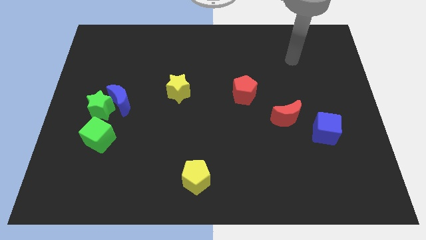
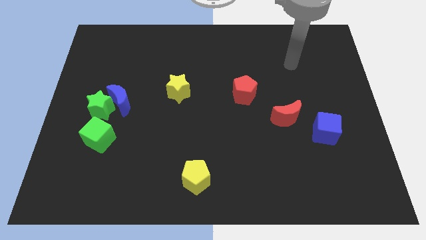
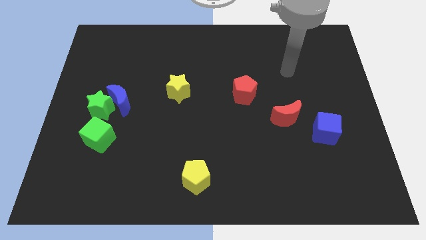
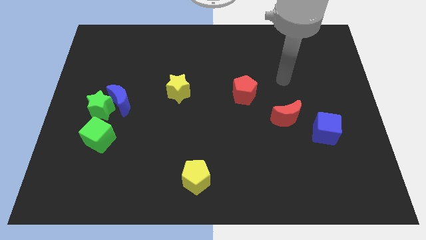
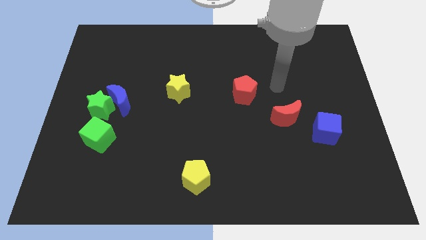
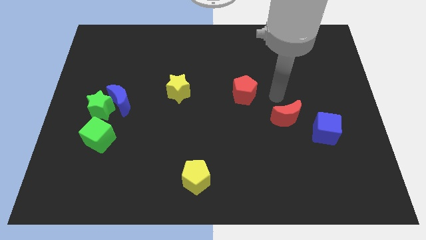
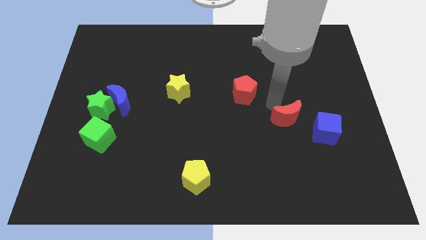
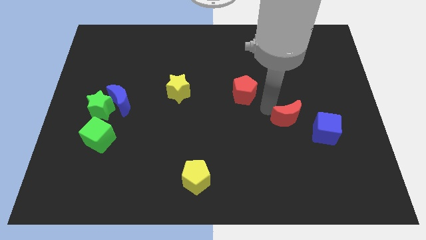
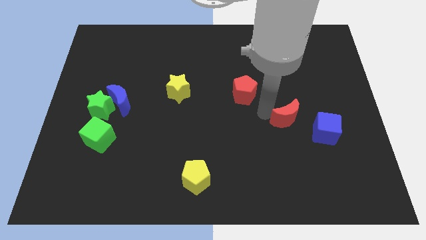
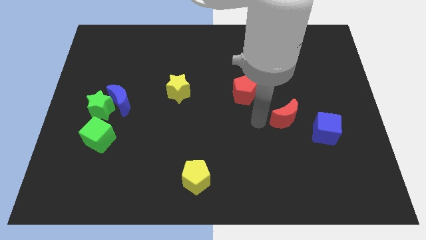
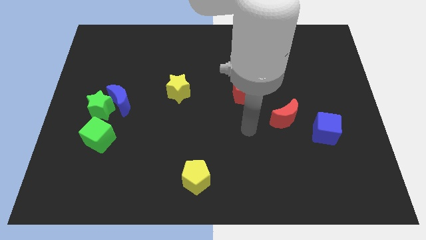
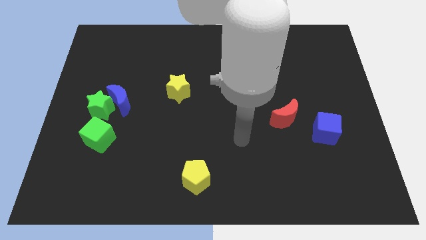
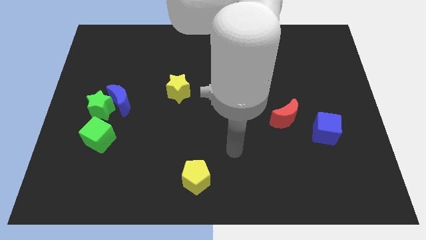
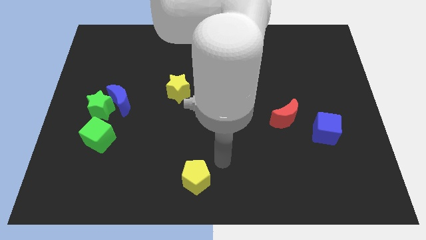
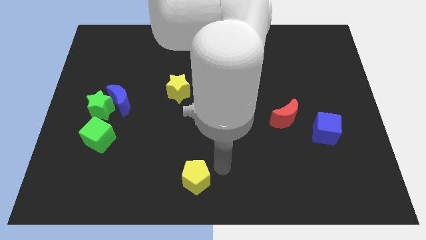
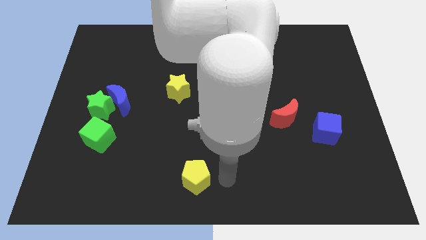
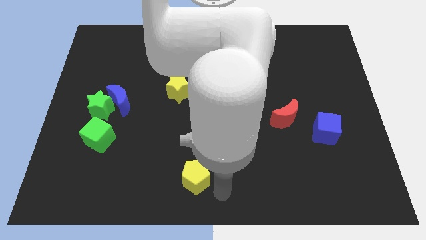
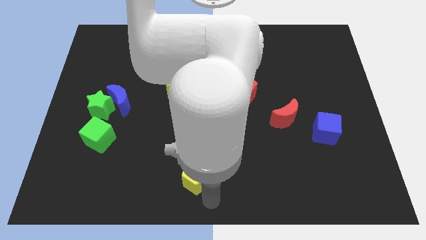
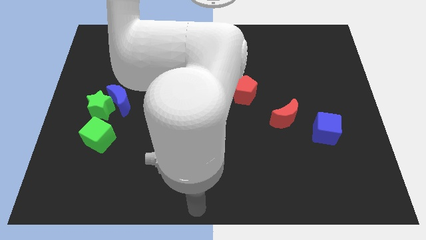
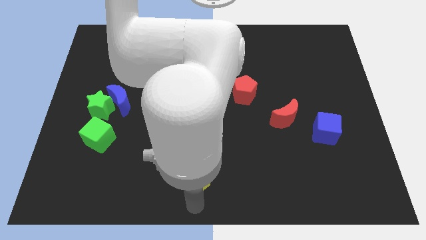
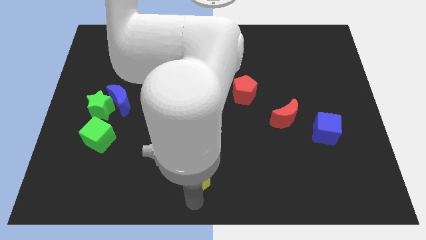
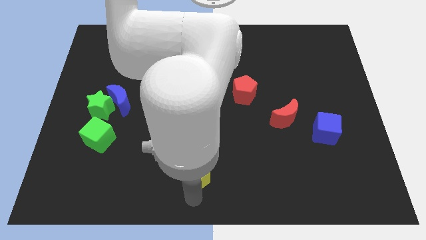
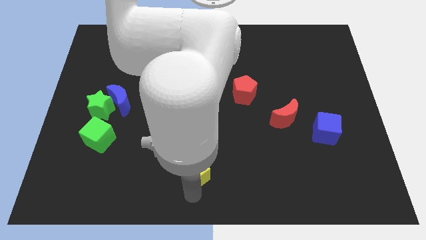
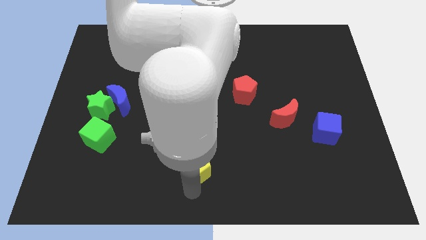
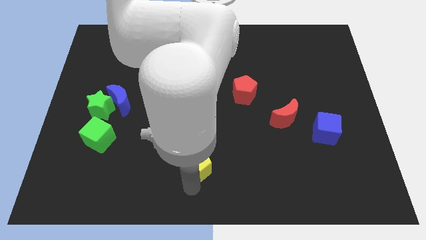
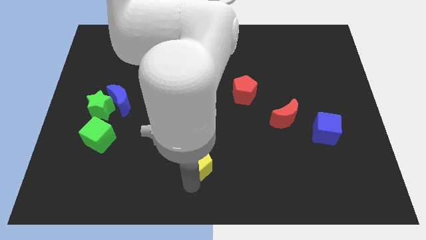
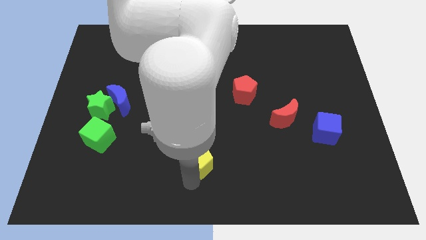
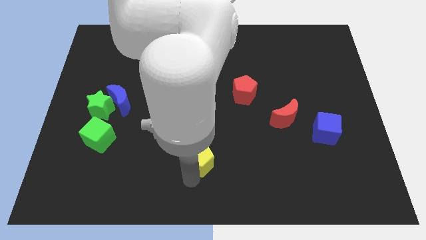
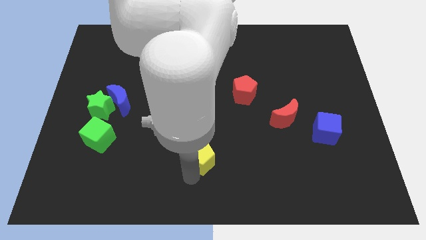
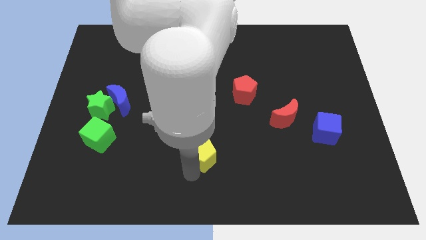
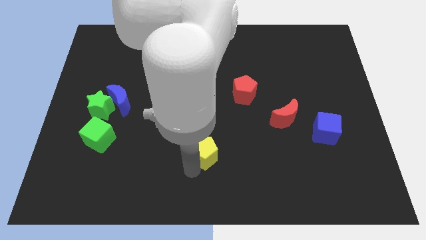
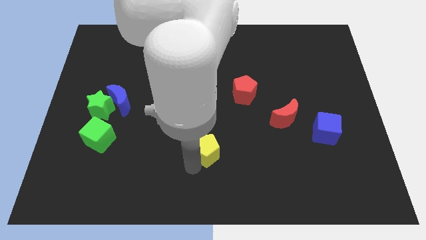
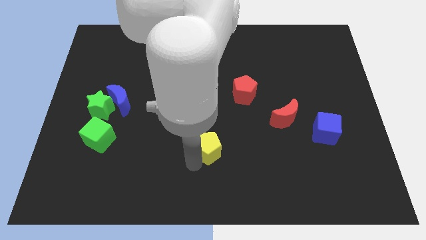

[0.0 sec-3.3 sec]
move the yellow pentagon up a little

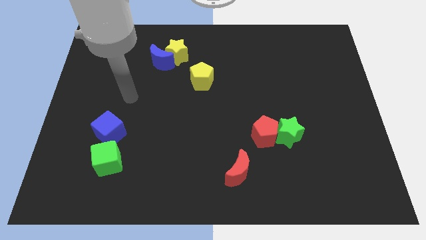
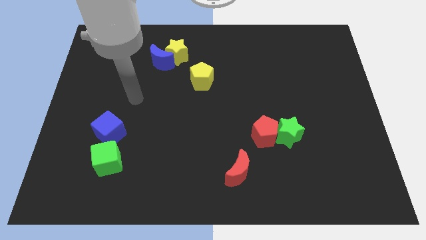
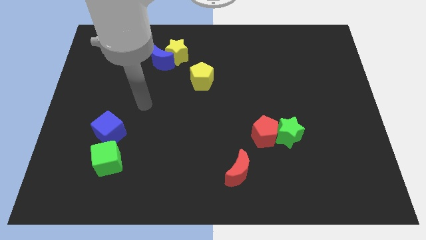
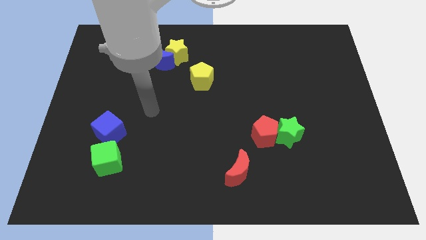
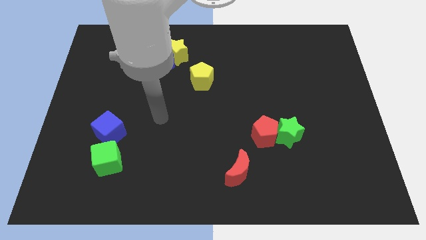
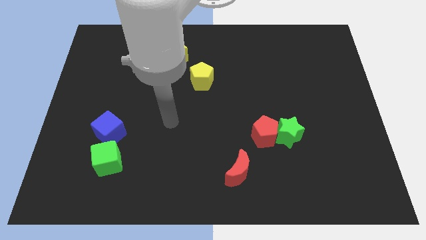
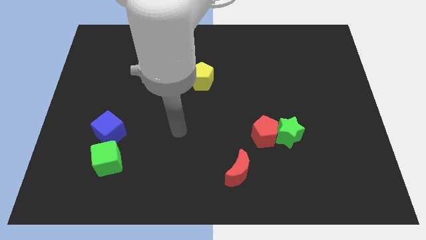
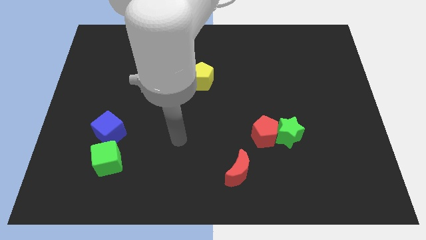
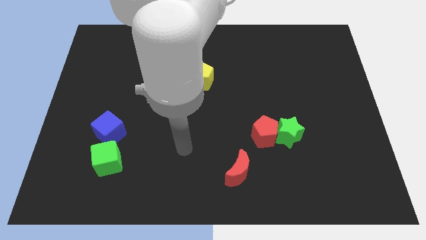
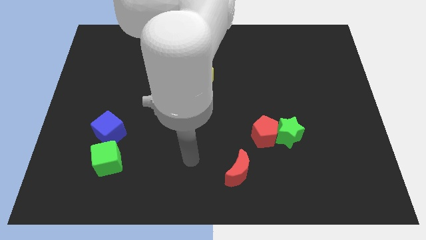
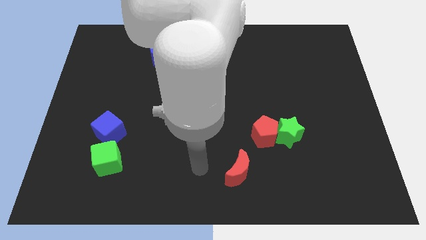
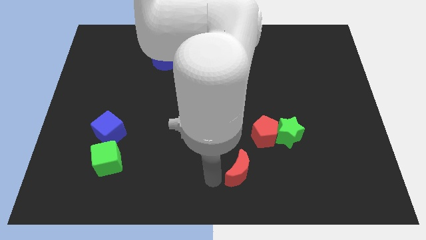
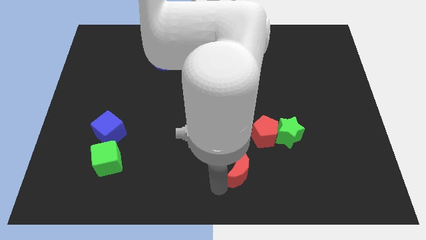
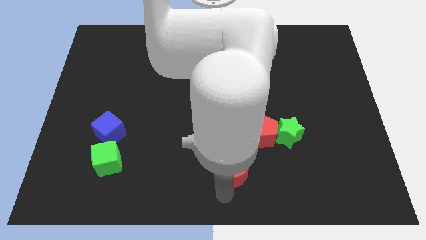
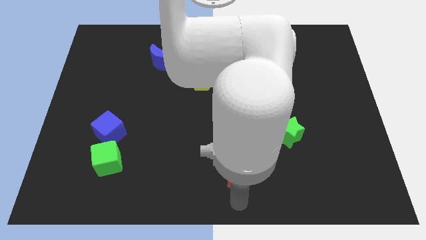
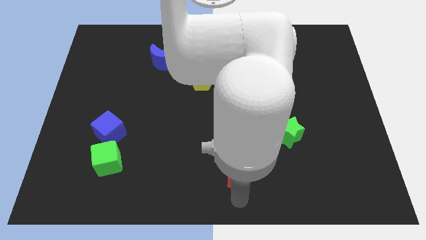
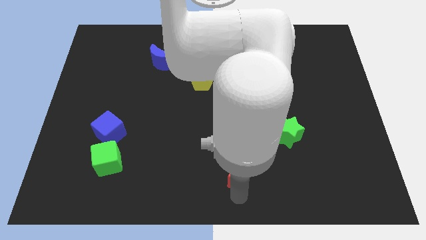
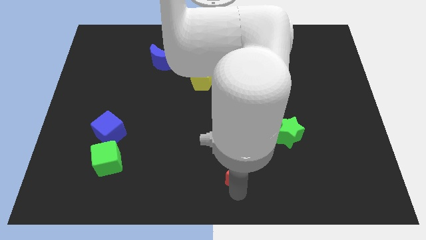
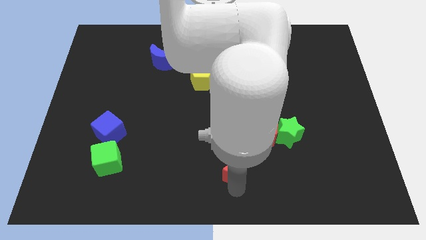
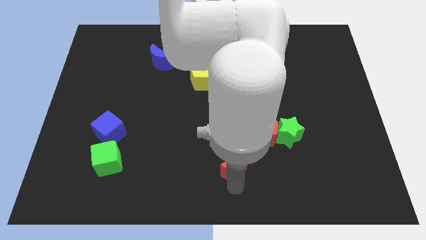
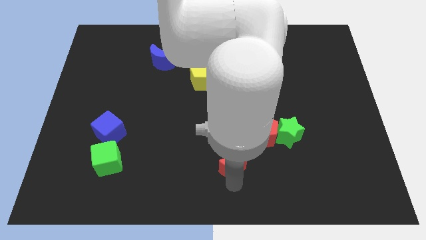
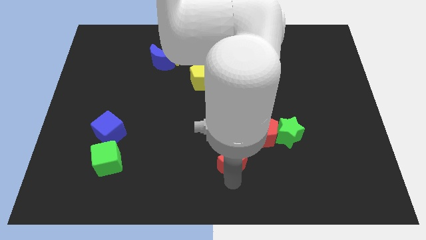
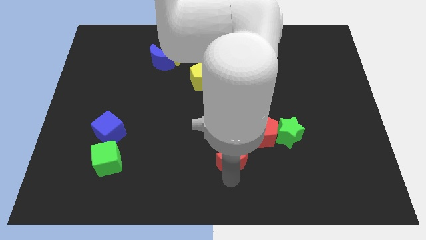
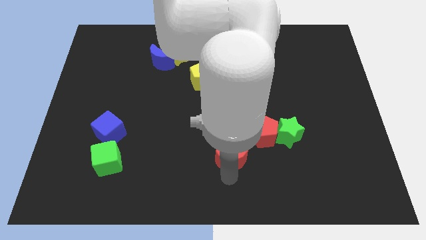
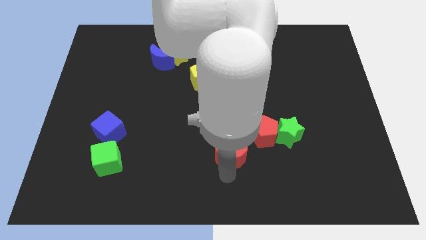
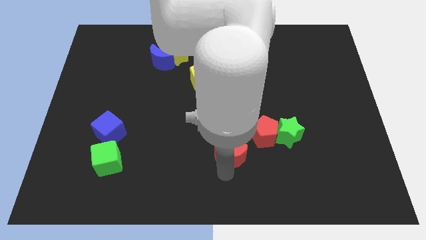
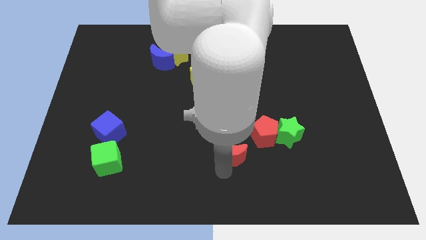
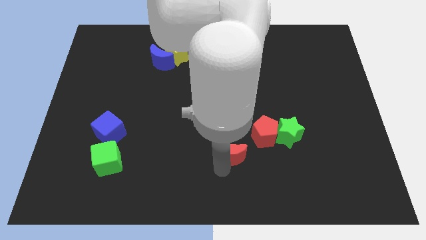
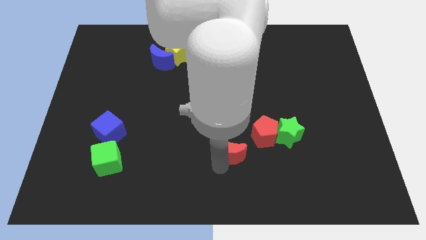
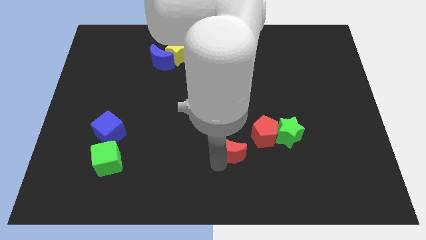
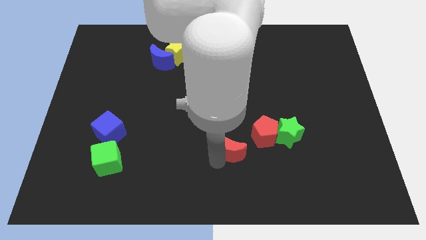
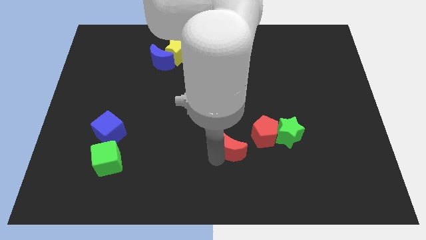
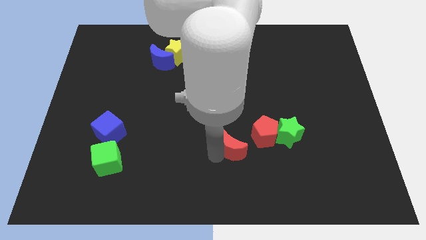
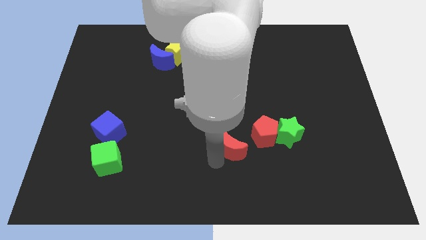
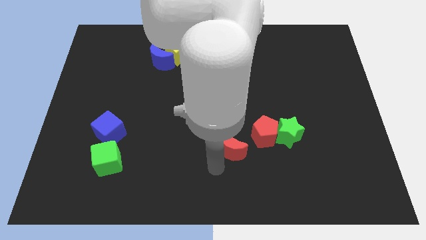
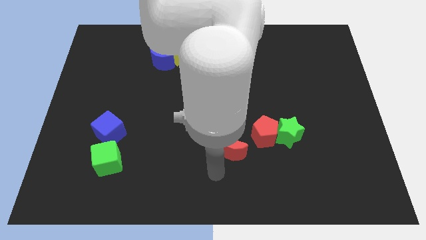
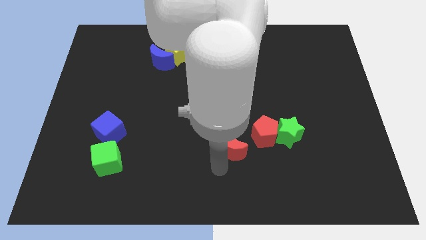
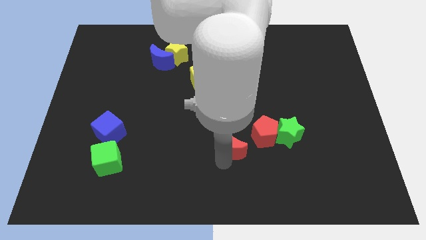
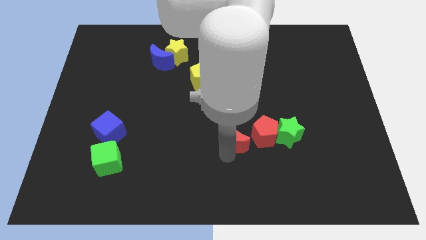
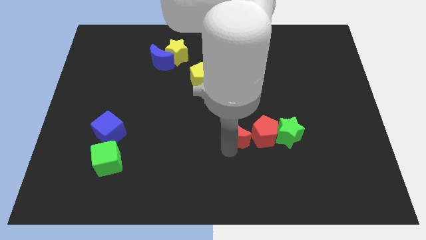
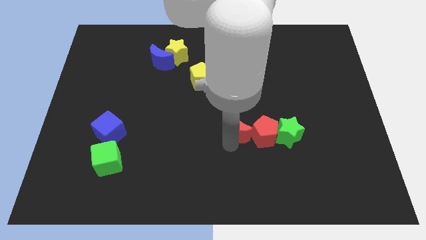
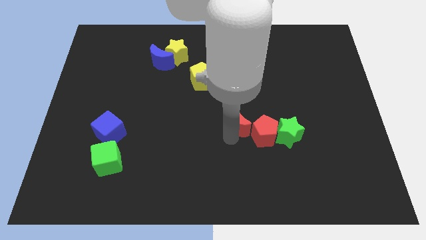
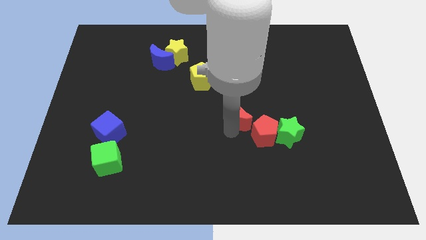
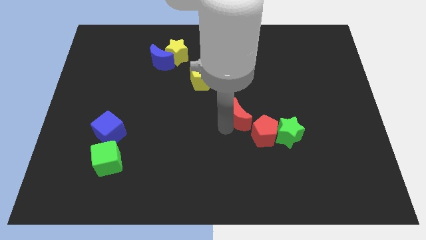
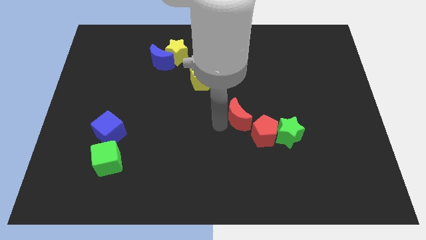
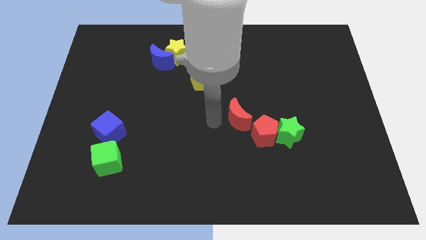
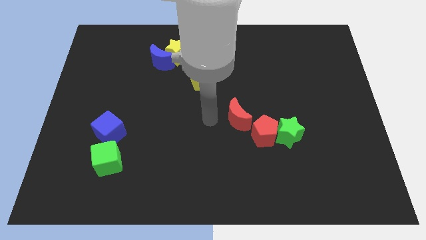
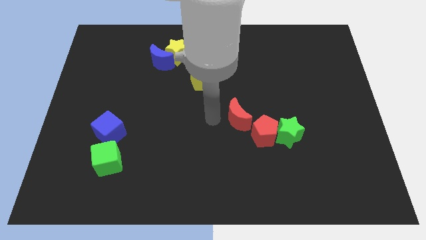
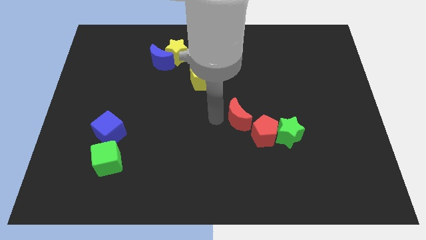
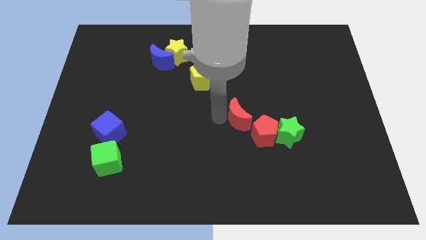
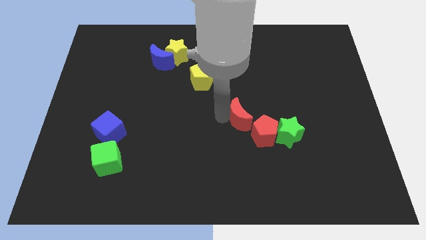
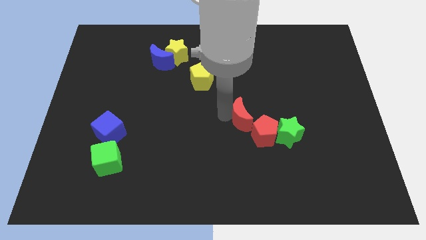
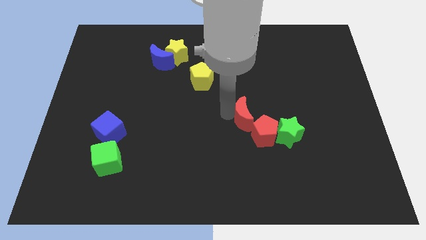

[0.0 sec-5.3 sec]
slide the red moon upwards and right somewhat
